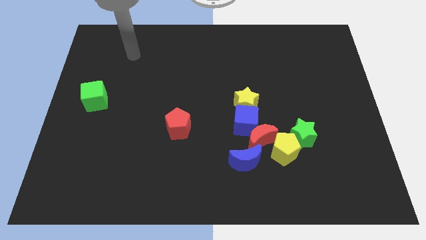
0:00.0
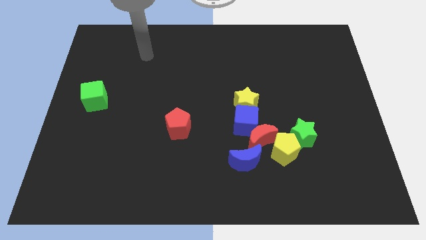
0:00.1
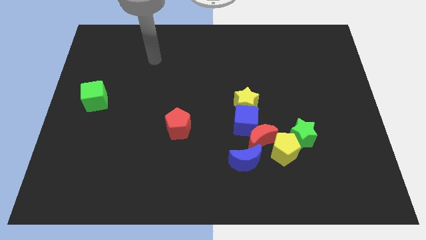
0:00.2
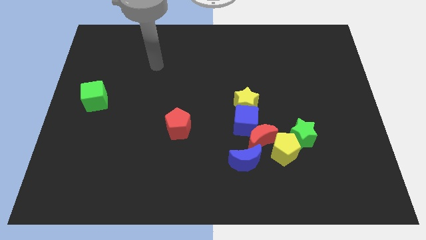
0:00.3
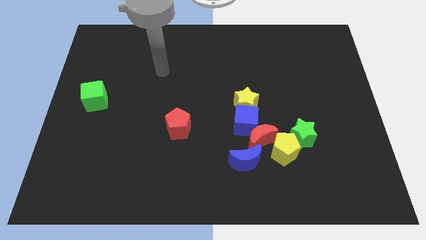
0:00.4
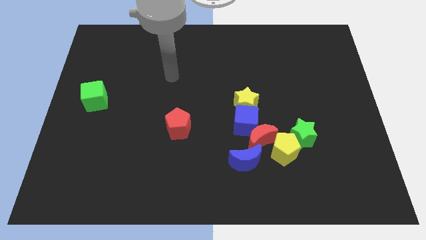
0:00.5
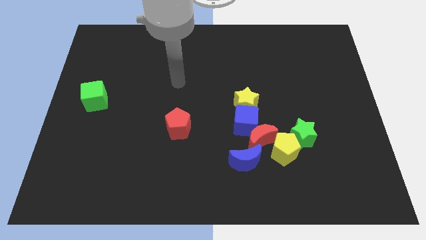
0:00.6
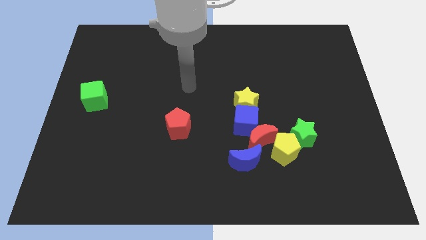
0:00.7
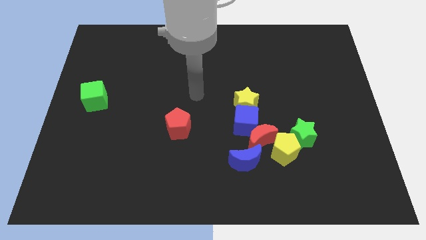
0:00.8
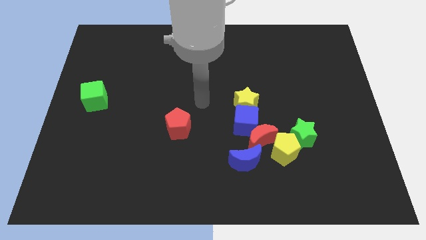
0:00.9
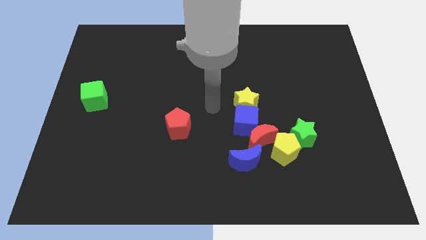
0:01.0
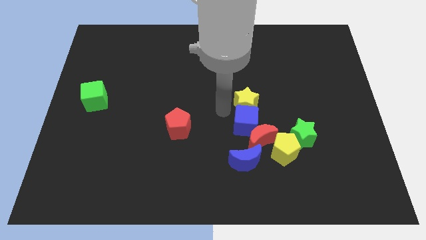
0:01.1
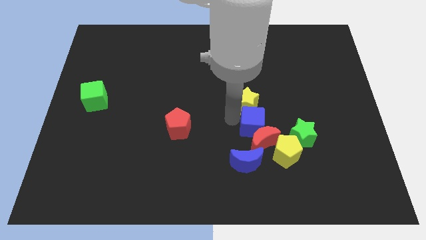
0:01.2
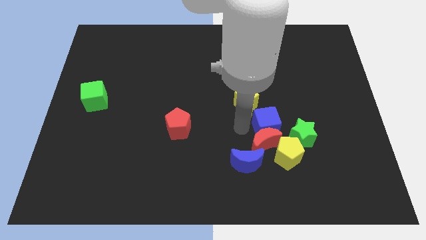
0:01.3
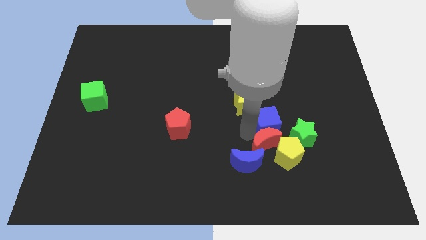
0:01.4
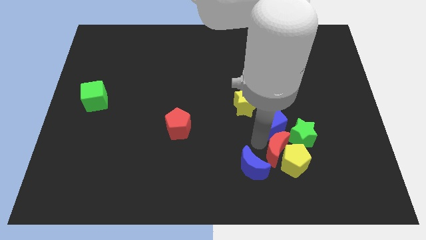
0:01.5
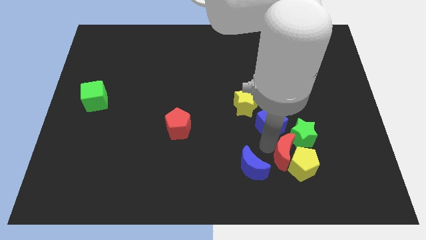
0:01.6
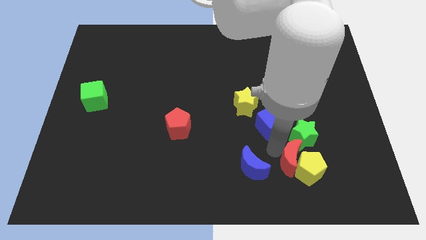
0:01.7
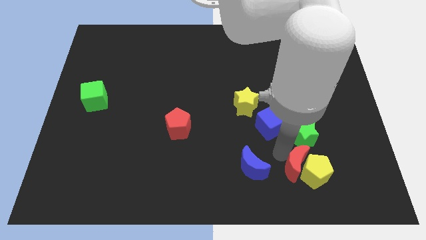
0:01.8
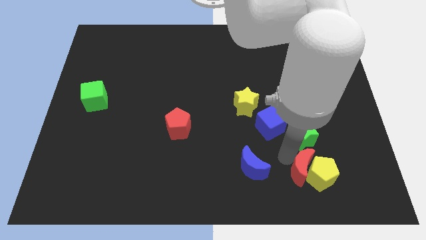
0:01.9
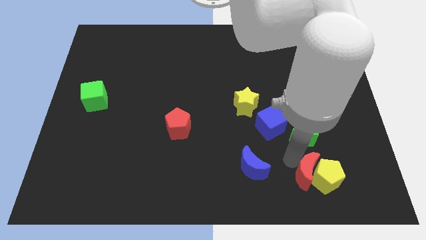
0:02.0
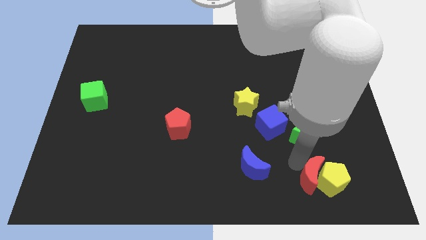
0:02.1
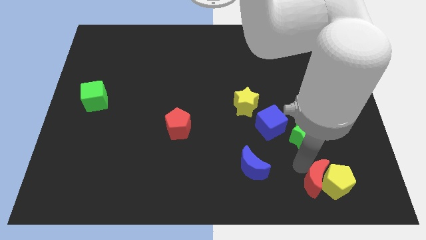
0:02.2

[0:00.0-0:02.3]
move the yellow pentagon away from the group

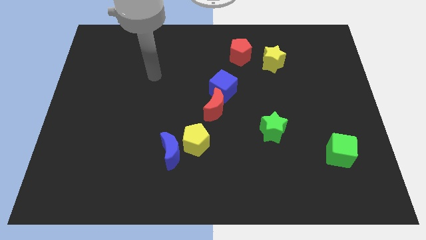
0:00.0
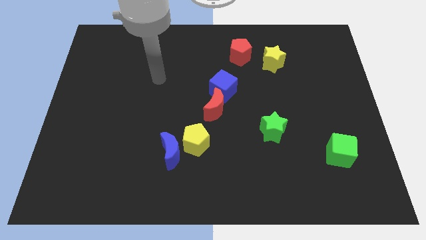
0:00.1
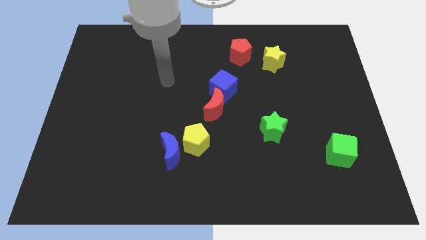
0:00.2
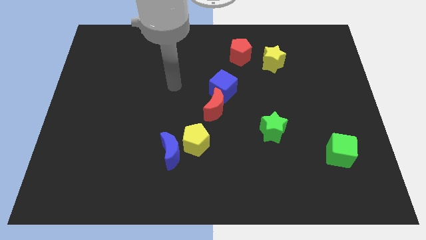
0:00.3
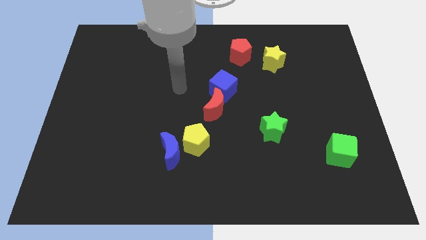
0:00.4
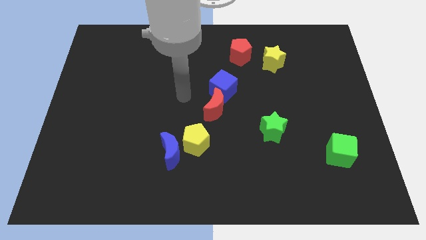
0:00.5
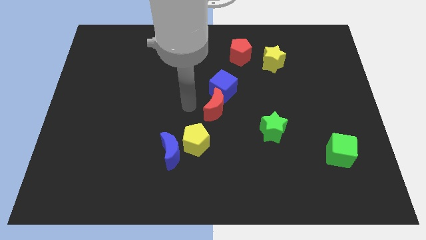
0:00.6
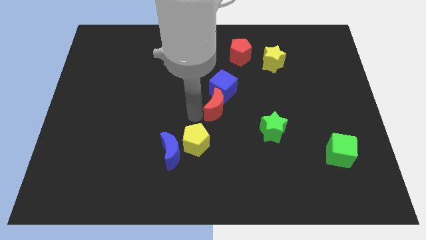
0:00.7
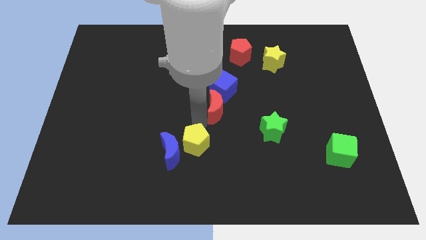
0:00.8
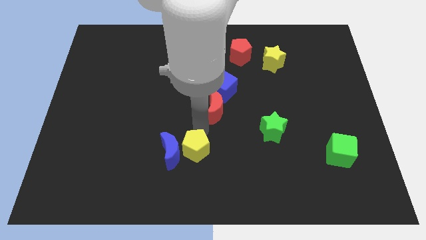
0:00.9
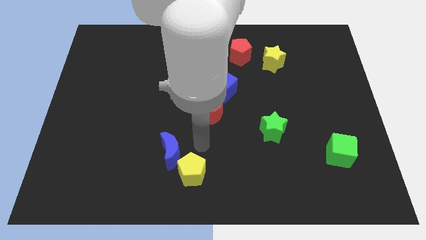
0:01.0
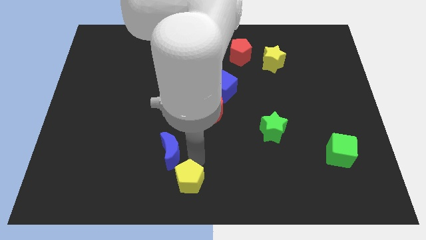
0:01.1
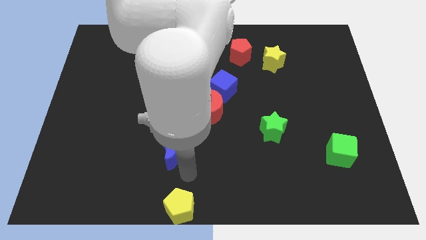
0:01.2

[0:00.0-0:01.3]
separate the blue moon from the yellow pentagon

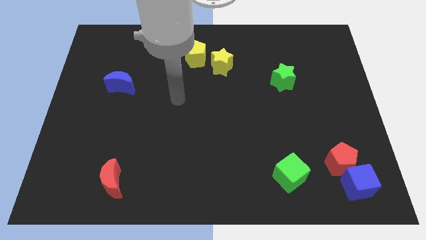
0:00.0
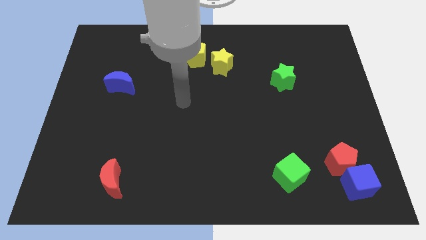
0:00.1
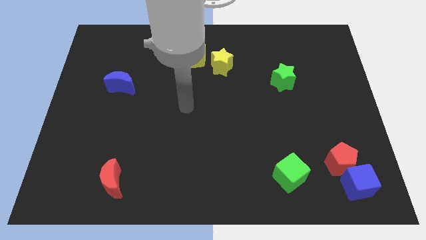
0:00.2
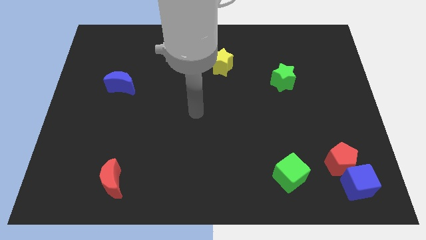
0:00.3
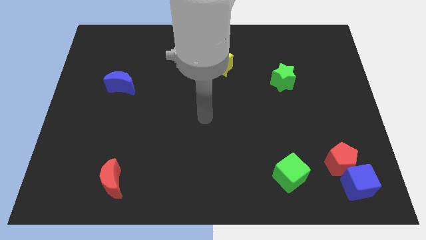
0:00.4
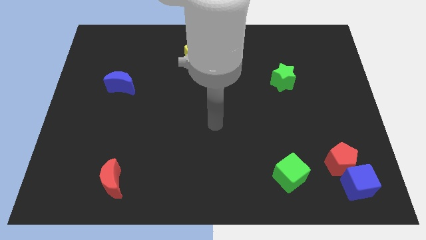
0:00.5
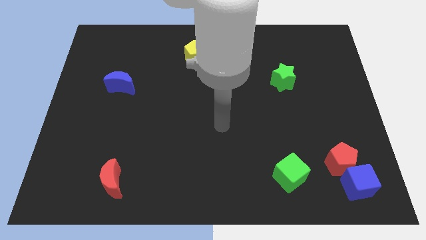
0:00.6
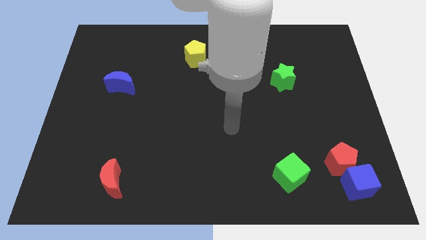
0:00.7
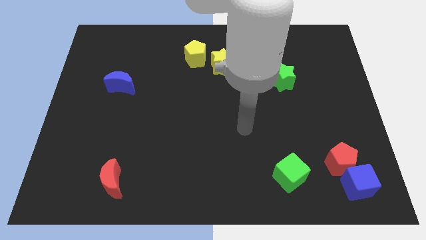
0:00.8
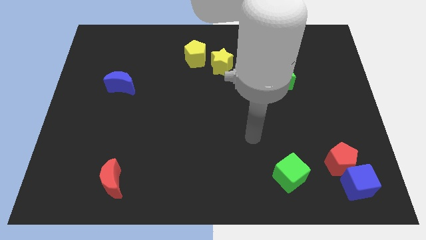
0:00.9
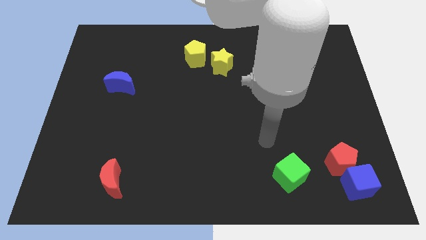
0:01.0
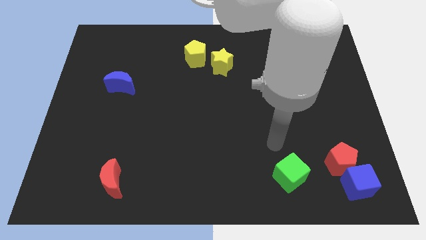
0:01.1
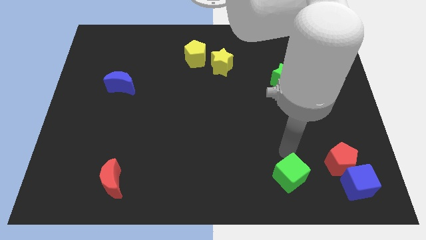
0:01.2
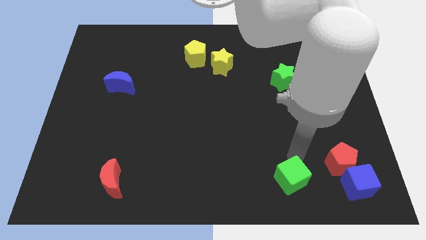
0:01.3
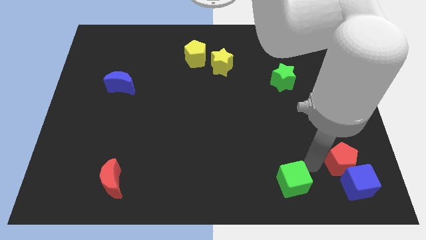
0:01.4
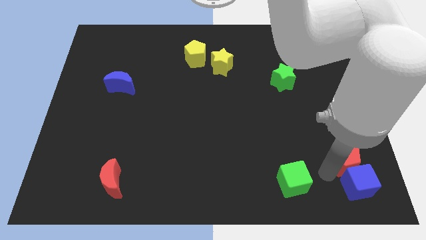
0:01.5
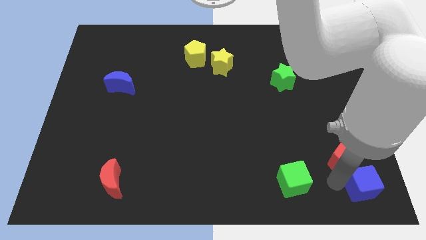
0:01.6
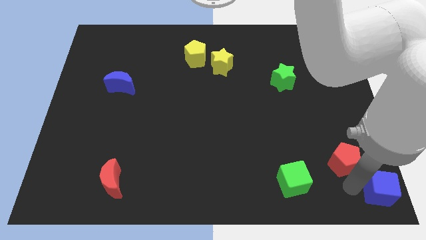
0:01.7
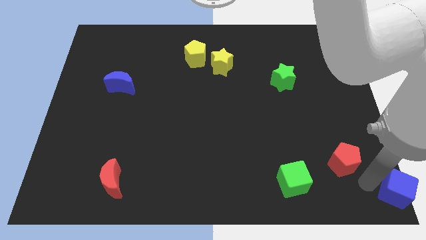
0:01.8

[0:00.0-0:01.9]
separate the red pentagon from the blue cube

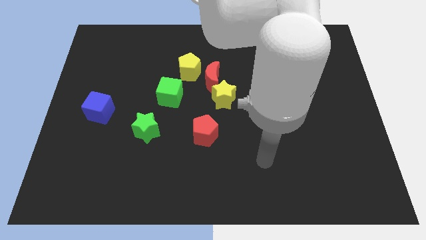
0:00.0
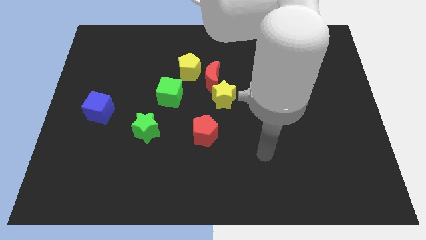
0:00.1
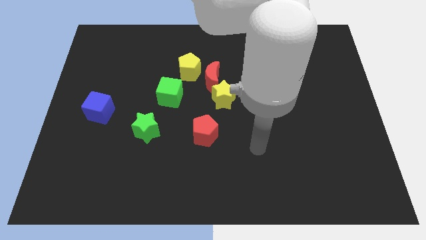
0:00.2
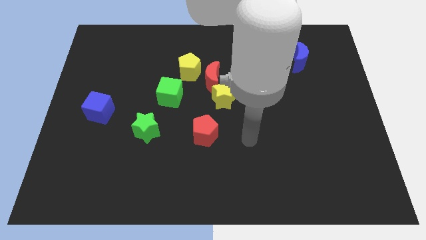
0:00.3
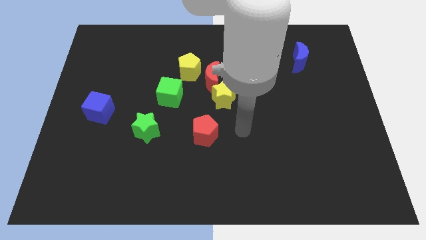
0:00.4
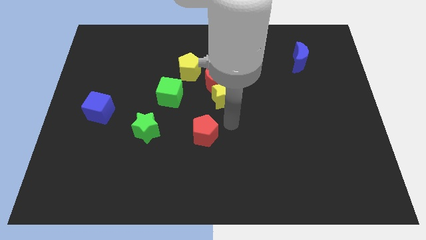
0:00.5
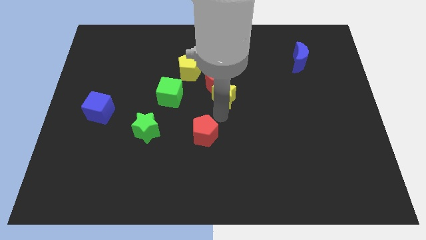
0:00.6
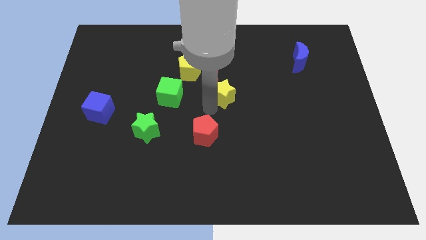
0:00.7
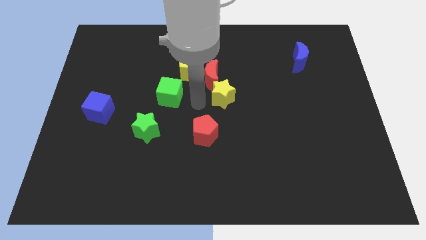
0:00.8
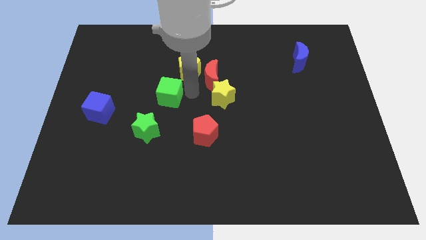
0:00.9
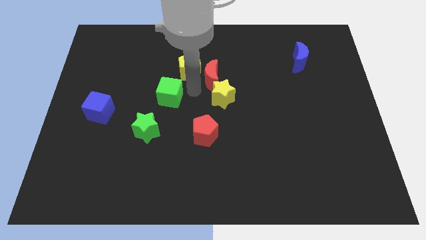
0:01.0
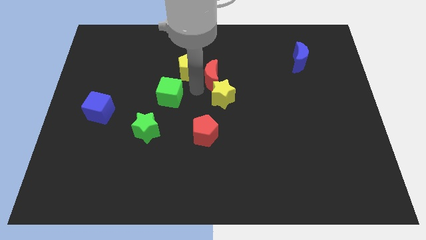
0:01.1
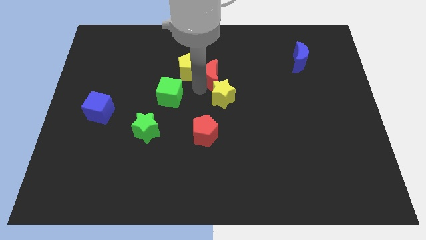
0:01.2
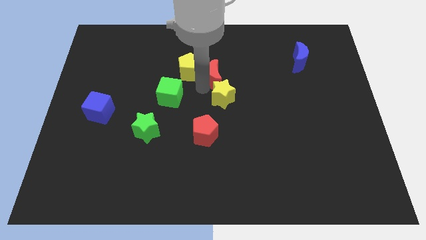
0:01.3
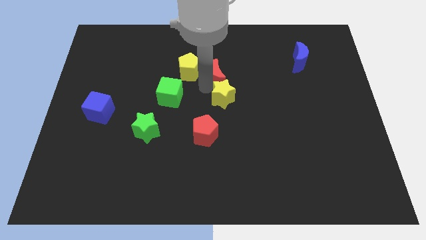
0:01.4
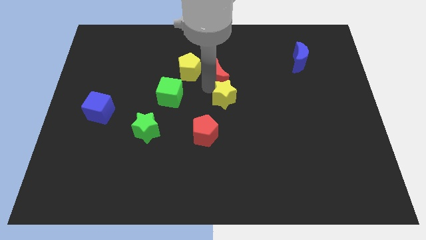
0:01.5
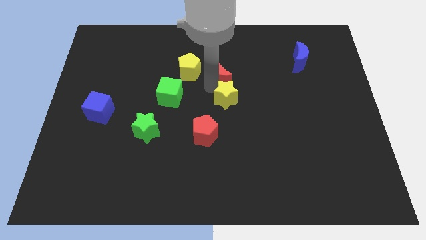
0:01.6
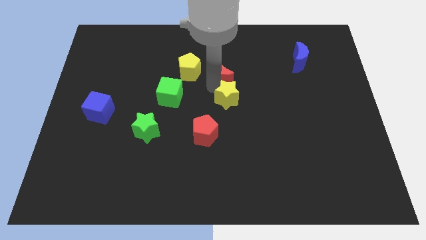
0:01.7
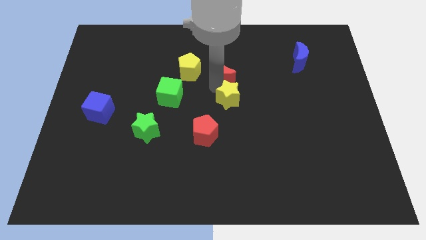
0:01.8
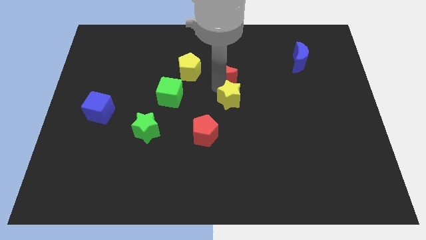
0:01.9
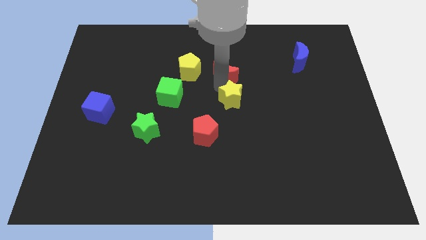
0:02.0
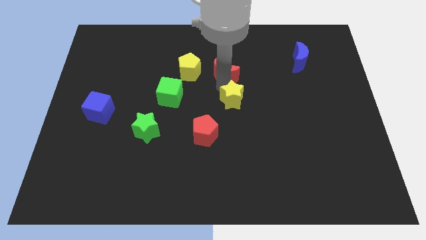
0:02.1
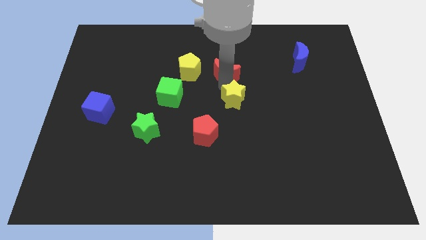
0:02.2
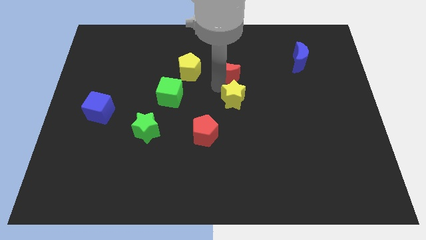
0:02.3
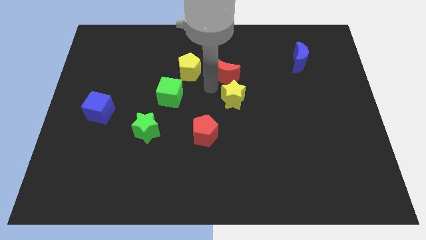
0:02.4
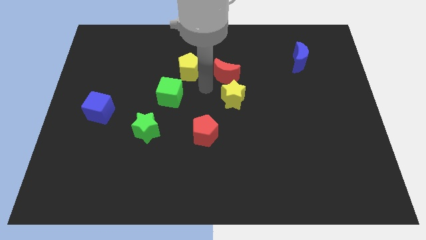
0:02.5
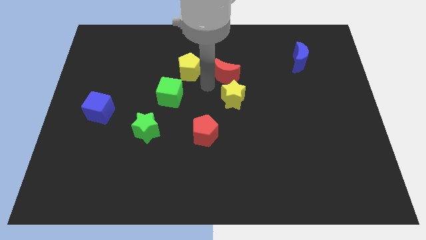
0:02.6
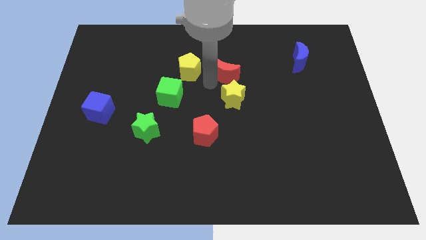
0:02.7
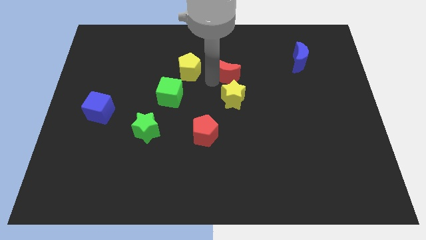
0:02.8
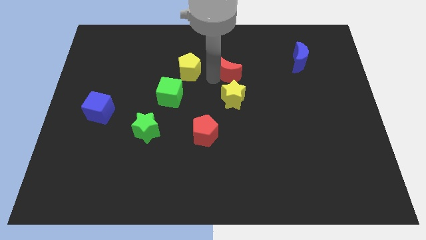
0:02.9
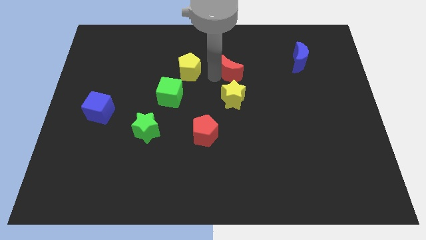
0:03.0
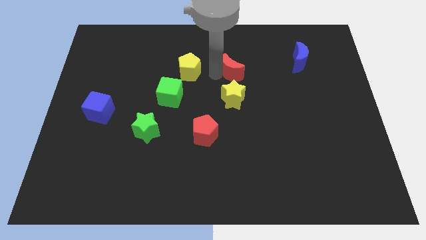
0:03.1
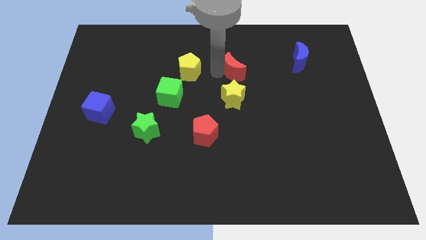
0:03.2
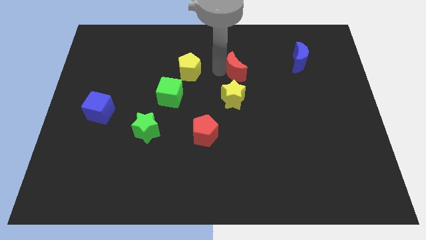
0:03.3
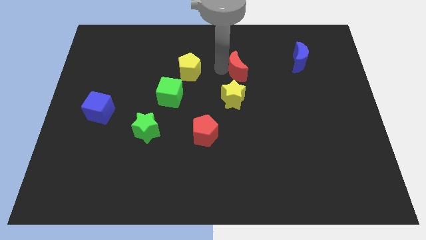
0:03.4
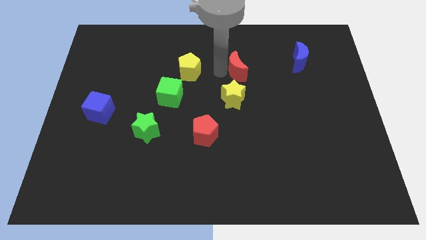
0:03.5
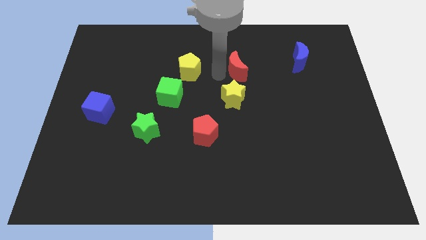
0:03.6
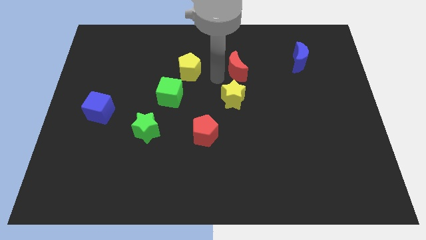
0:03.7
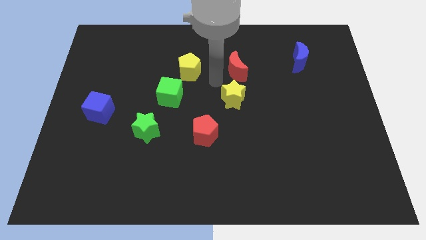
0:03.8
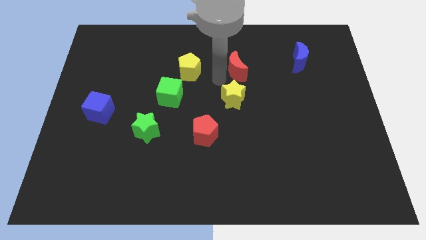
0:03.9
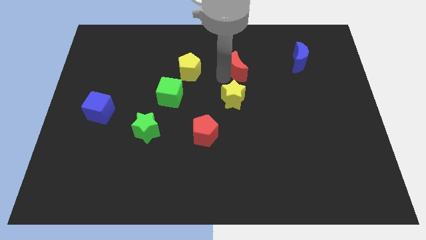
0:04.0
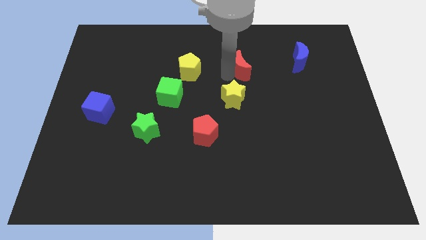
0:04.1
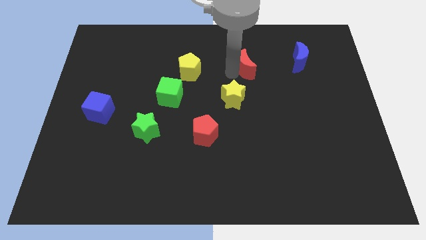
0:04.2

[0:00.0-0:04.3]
pull the red moon apart from the yellow pentagon and yellow star
